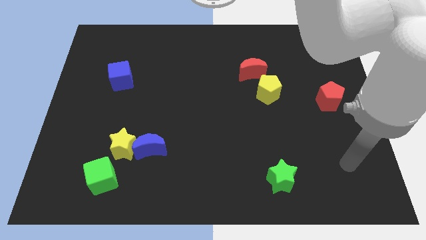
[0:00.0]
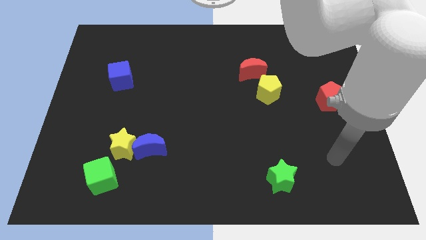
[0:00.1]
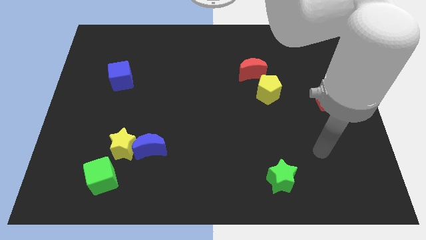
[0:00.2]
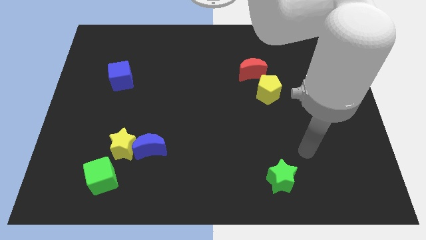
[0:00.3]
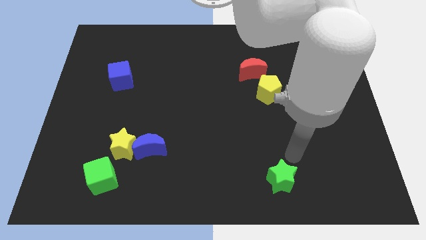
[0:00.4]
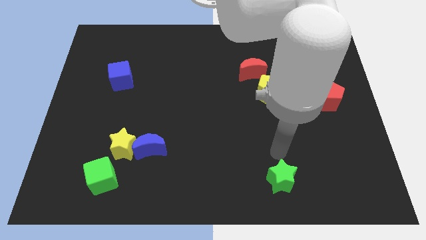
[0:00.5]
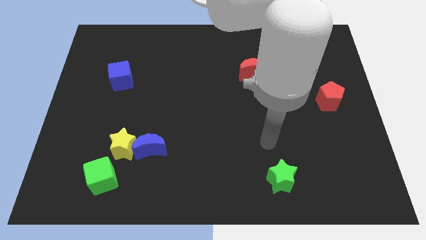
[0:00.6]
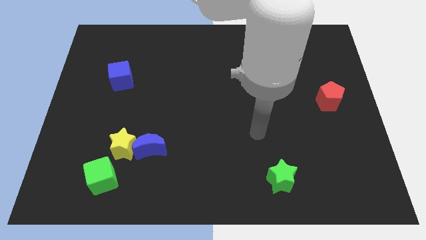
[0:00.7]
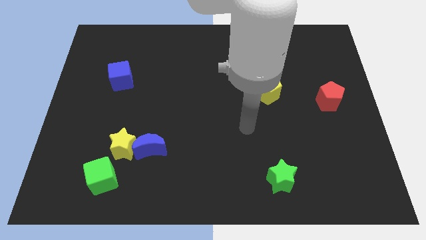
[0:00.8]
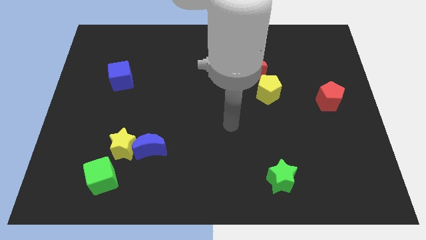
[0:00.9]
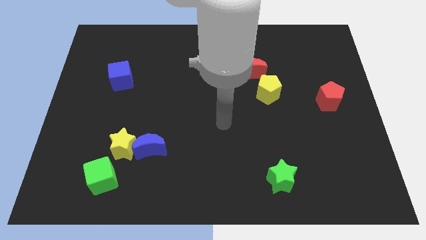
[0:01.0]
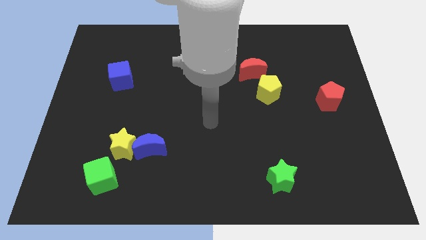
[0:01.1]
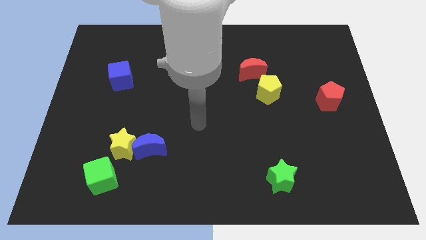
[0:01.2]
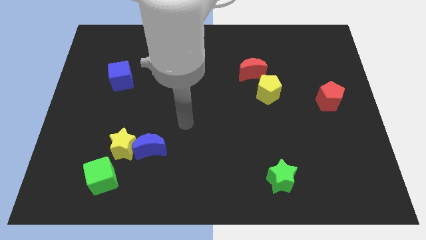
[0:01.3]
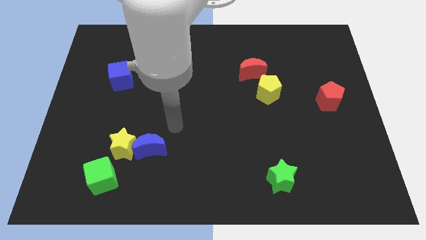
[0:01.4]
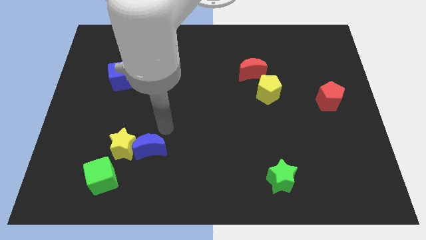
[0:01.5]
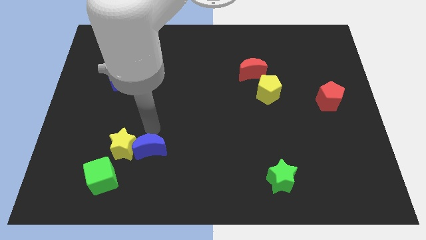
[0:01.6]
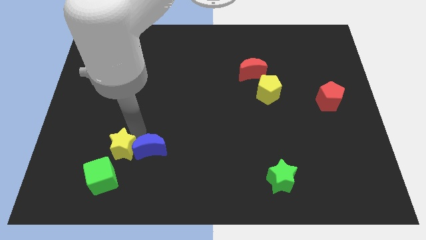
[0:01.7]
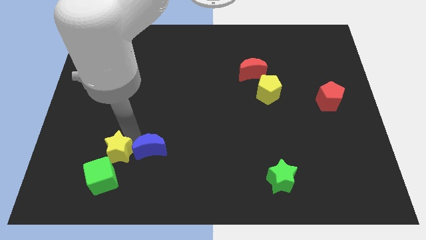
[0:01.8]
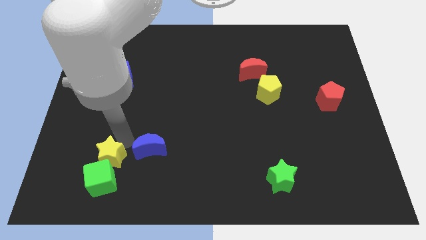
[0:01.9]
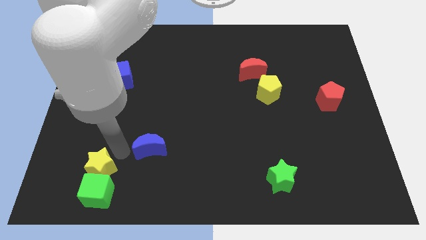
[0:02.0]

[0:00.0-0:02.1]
move the blue moon away from the yellow star

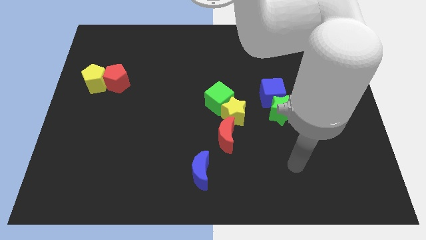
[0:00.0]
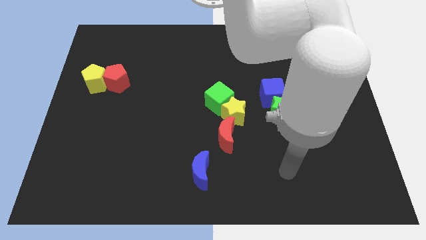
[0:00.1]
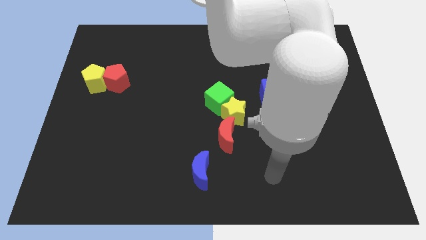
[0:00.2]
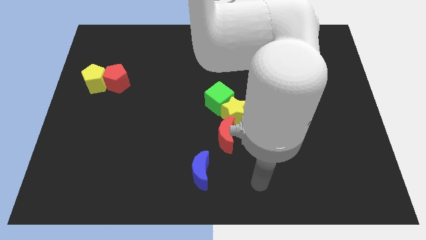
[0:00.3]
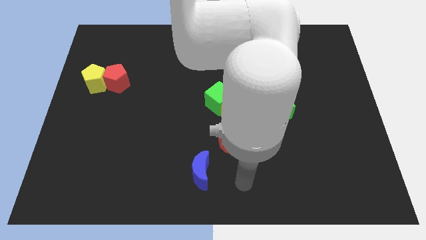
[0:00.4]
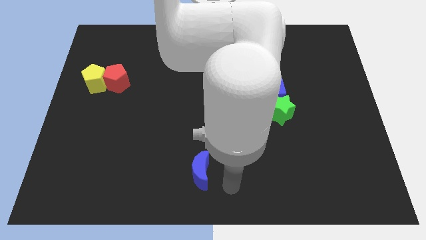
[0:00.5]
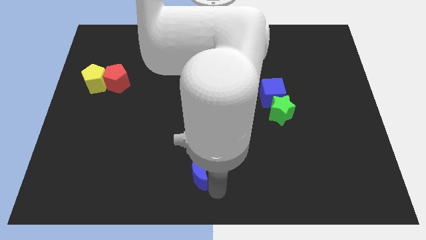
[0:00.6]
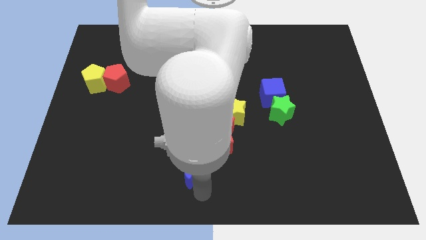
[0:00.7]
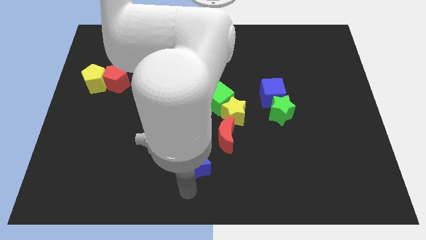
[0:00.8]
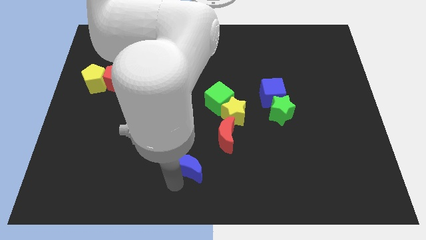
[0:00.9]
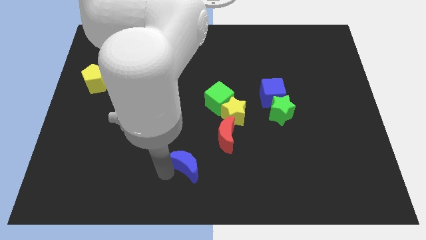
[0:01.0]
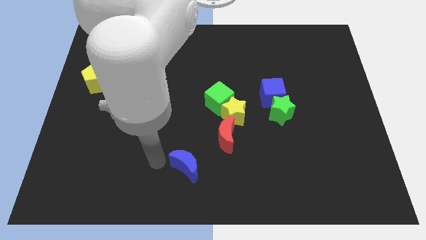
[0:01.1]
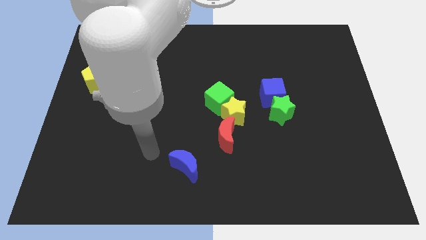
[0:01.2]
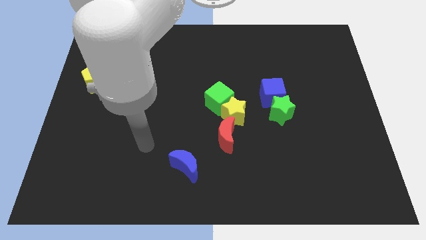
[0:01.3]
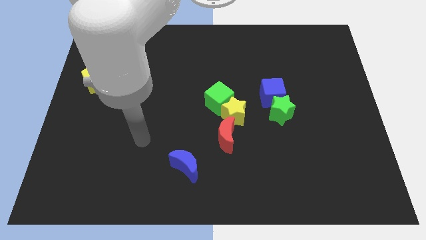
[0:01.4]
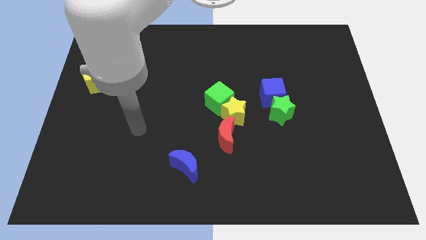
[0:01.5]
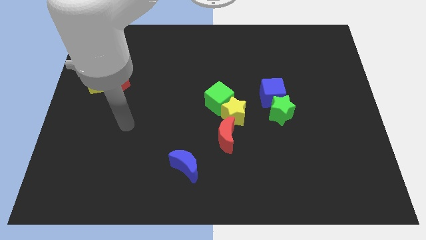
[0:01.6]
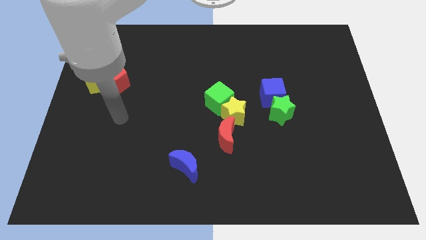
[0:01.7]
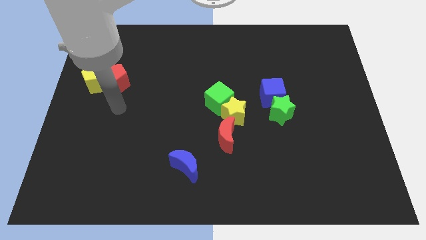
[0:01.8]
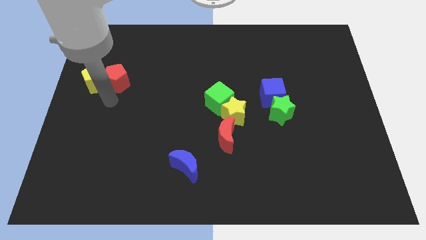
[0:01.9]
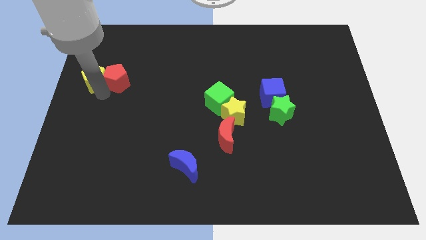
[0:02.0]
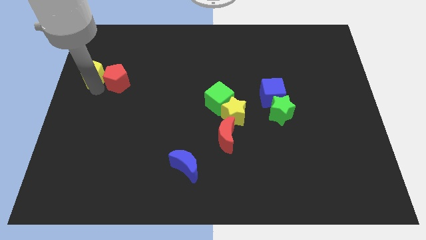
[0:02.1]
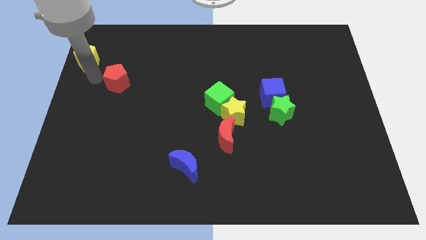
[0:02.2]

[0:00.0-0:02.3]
move the red pentagon away from the yellow pentagon

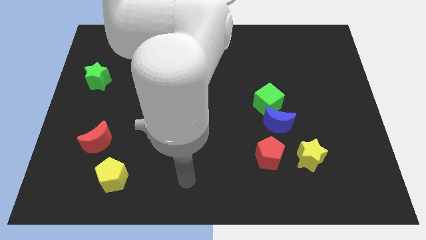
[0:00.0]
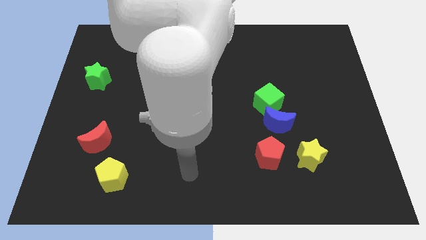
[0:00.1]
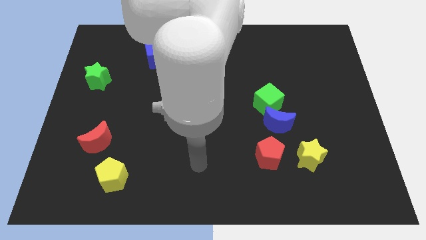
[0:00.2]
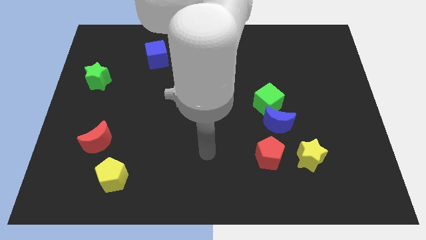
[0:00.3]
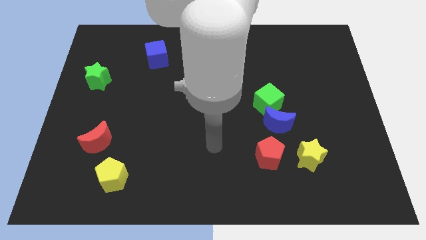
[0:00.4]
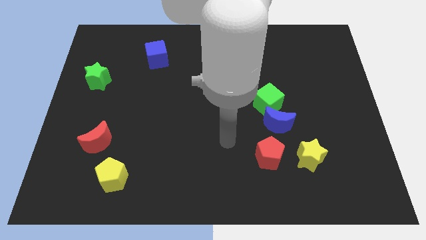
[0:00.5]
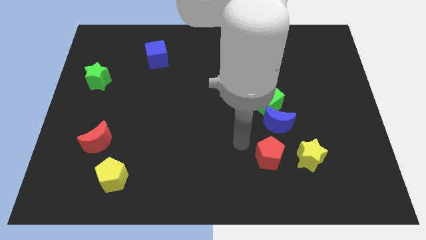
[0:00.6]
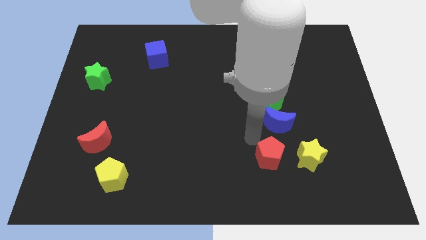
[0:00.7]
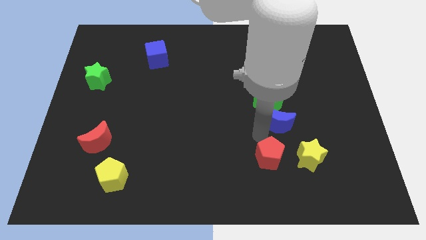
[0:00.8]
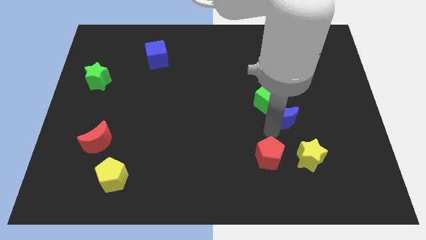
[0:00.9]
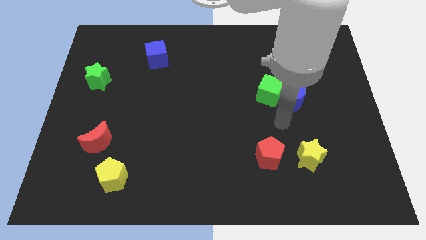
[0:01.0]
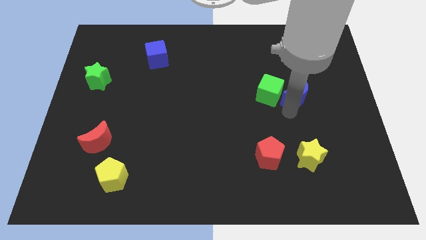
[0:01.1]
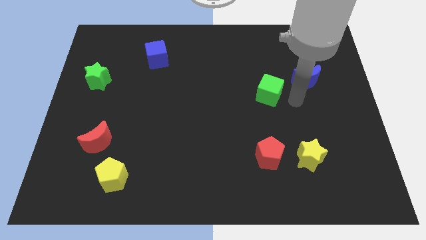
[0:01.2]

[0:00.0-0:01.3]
move the green cube away from the blue moon

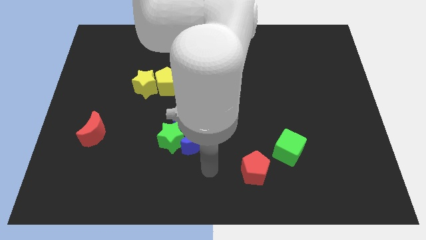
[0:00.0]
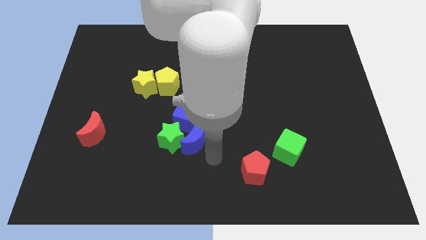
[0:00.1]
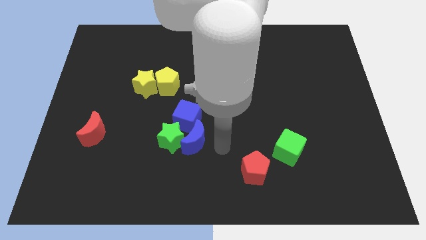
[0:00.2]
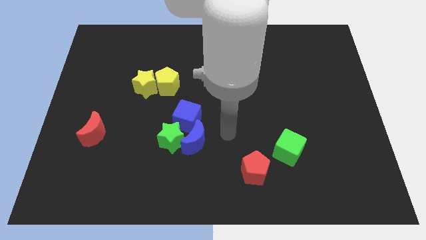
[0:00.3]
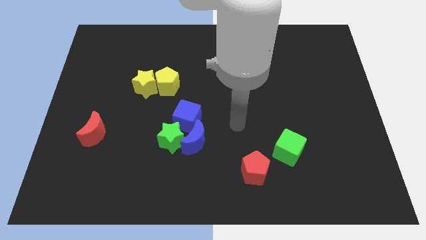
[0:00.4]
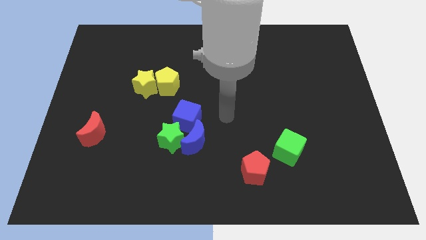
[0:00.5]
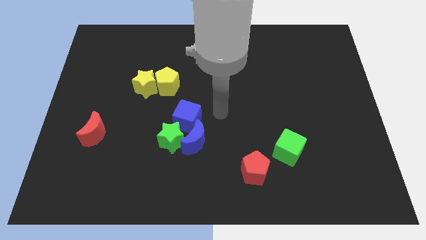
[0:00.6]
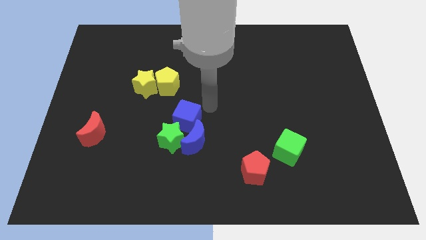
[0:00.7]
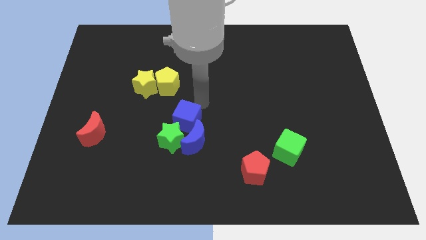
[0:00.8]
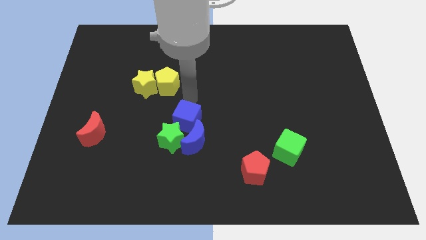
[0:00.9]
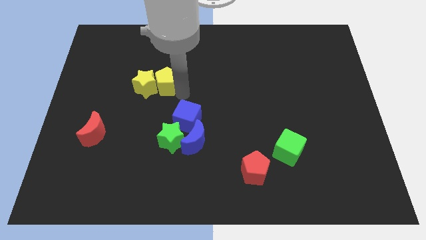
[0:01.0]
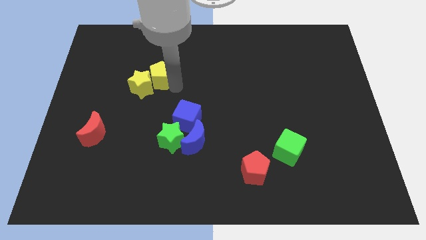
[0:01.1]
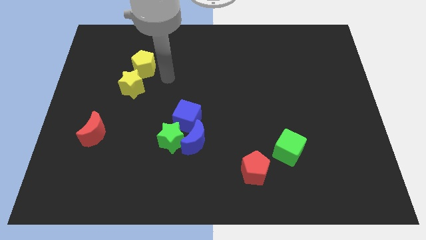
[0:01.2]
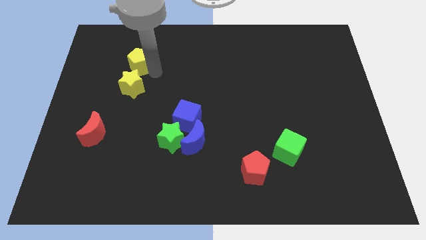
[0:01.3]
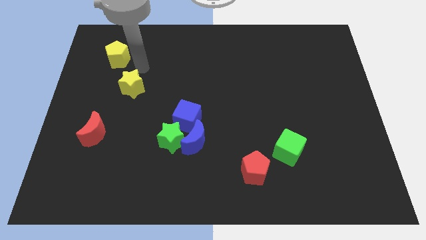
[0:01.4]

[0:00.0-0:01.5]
separate the yellow star from the yellow pentagon

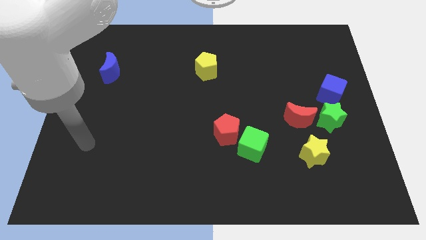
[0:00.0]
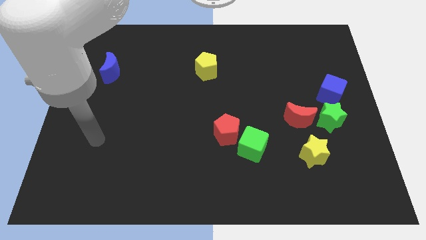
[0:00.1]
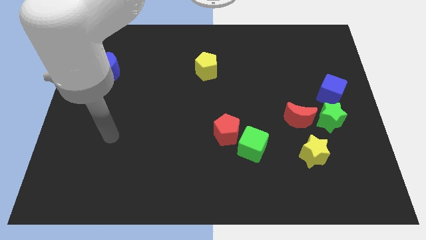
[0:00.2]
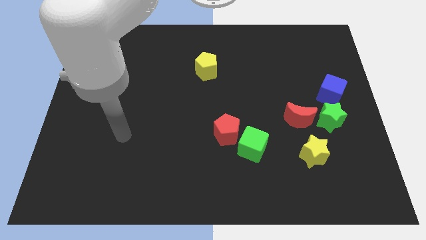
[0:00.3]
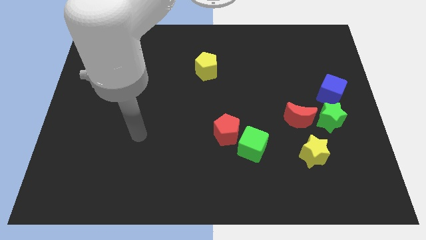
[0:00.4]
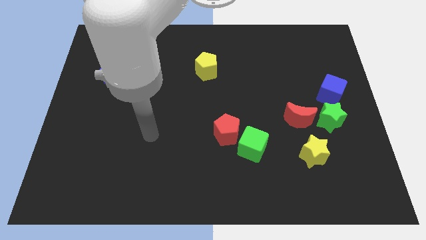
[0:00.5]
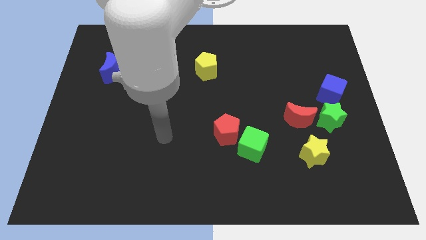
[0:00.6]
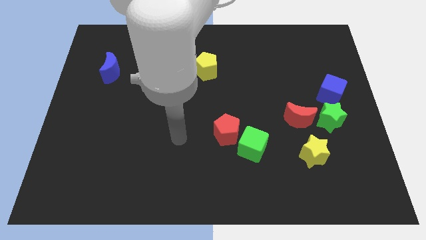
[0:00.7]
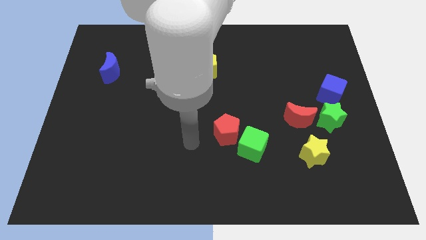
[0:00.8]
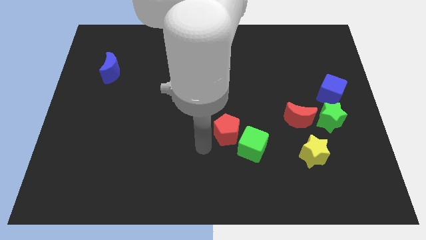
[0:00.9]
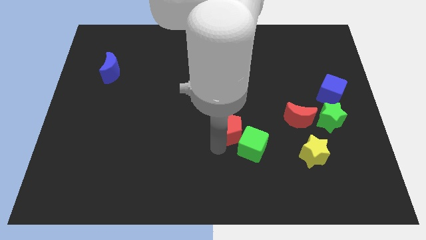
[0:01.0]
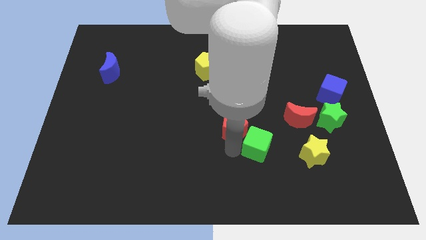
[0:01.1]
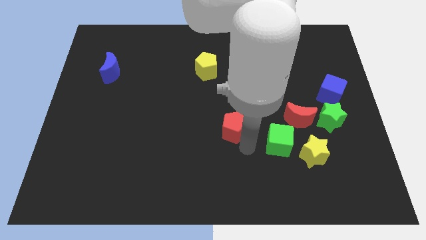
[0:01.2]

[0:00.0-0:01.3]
pull the red pentagon apart from the green cube

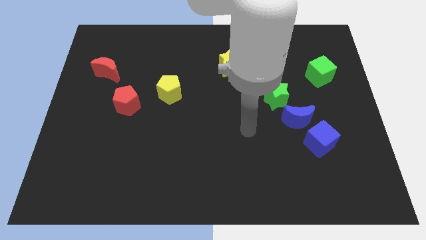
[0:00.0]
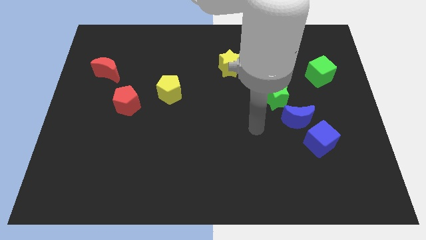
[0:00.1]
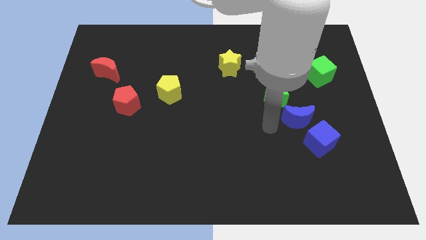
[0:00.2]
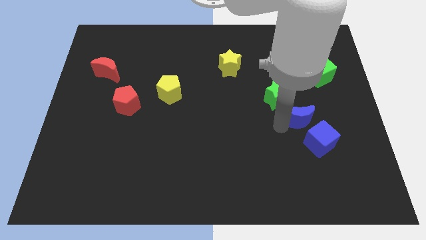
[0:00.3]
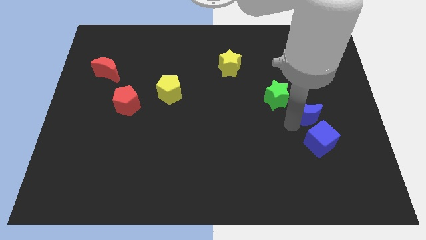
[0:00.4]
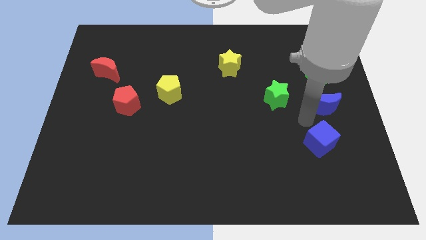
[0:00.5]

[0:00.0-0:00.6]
pull the blue cube apart from the blue moon

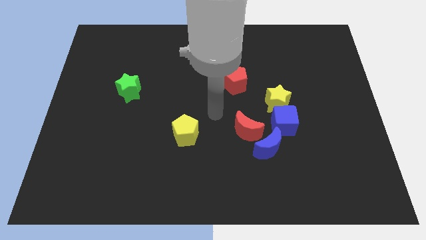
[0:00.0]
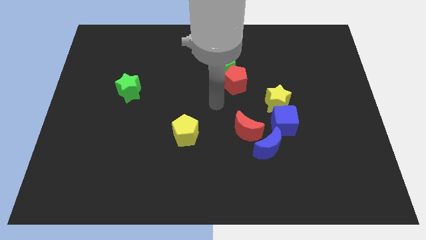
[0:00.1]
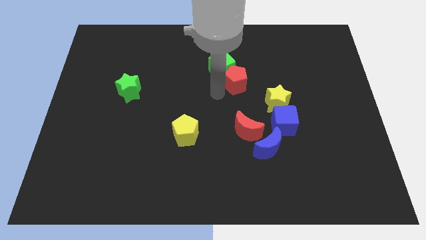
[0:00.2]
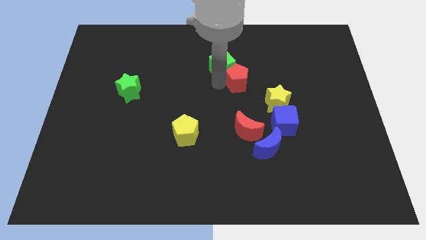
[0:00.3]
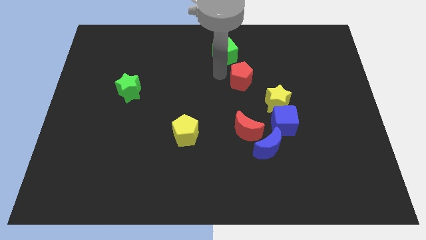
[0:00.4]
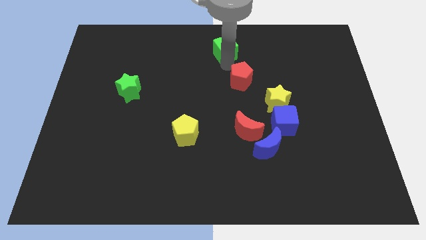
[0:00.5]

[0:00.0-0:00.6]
separate the red pentagon from the green cube
